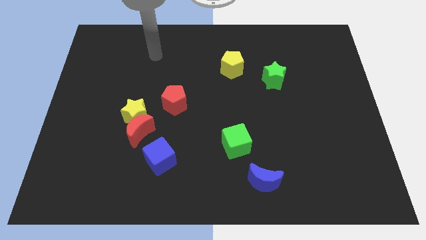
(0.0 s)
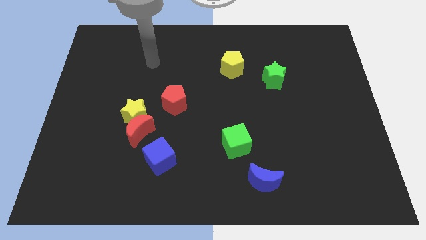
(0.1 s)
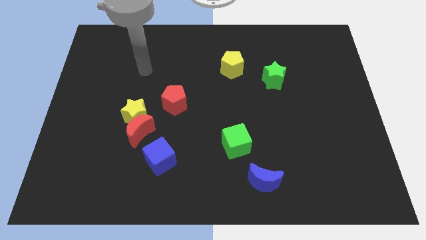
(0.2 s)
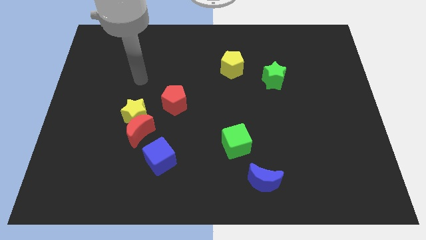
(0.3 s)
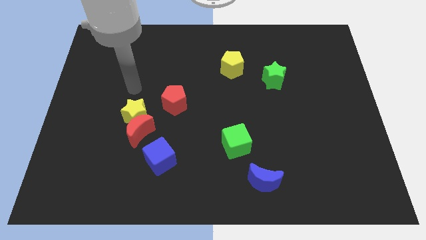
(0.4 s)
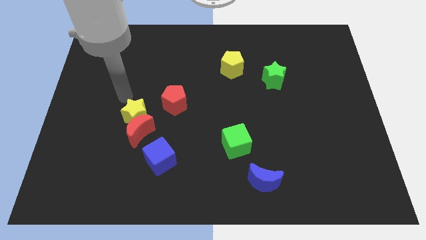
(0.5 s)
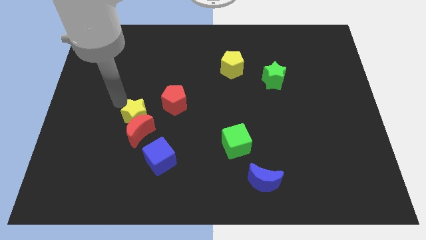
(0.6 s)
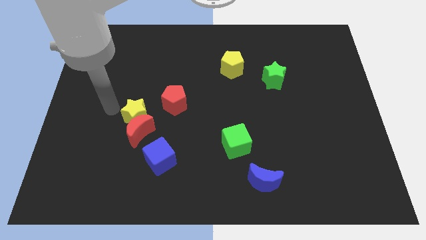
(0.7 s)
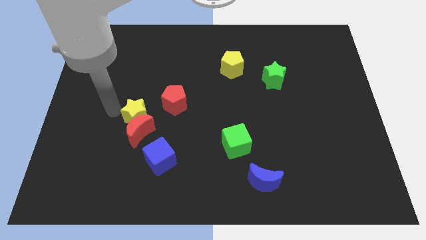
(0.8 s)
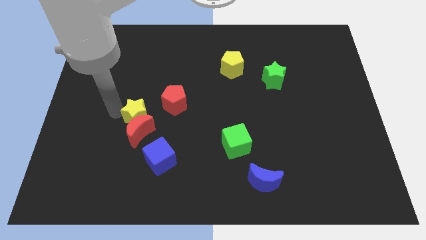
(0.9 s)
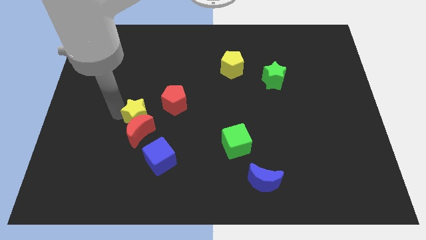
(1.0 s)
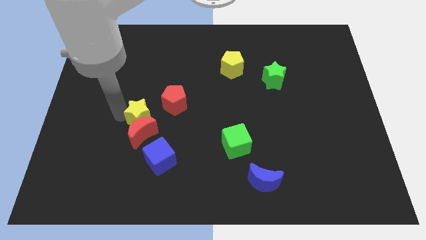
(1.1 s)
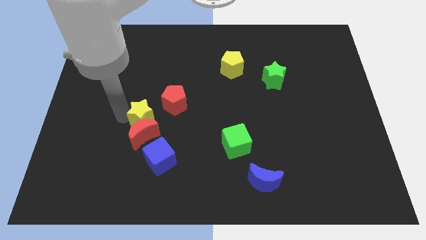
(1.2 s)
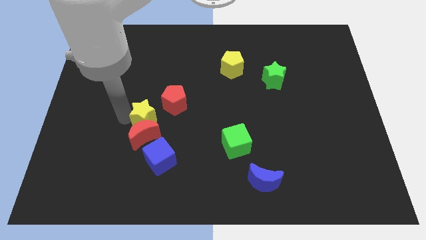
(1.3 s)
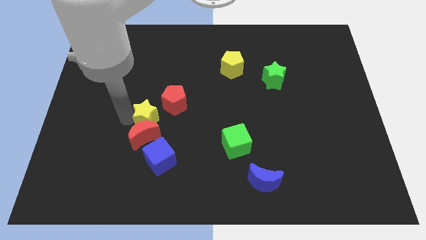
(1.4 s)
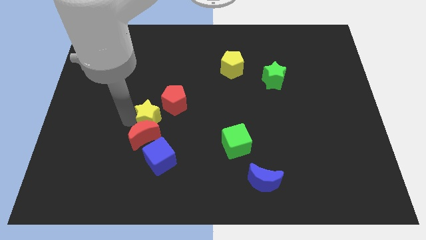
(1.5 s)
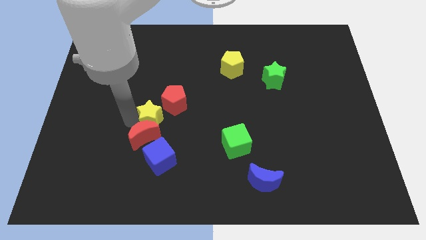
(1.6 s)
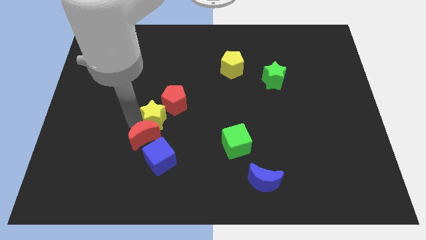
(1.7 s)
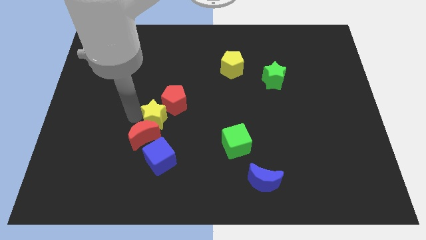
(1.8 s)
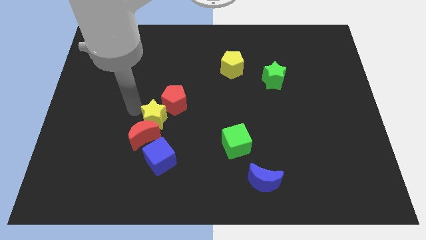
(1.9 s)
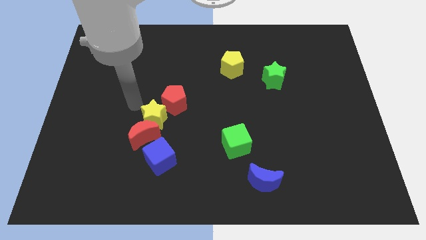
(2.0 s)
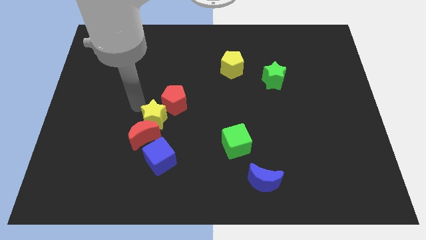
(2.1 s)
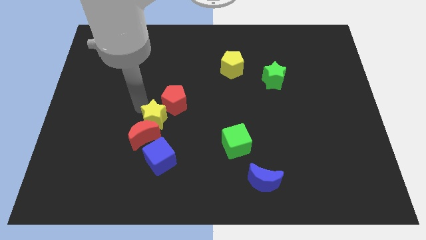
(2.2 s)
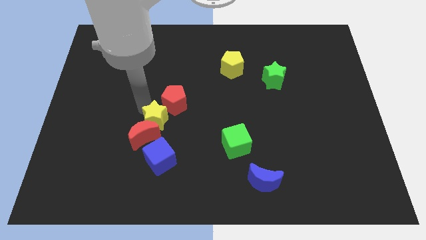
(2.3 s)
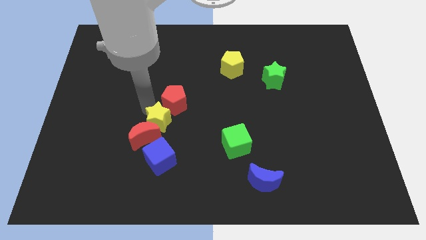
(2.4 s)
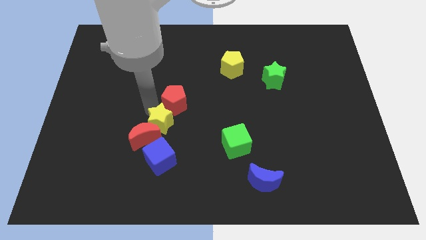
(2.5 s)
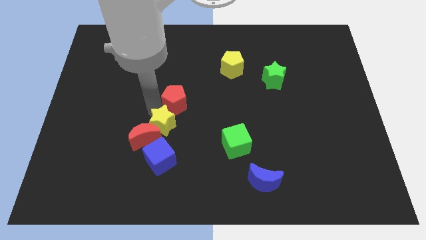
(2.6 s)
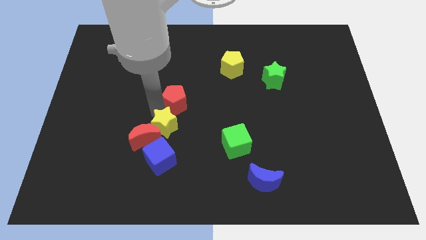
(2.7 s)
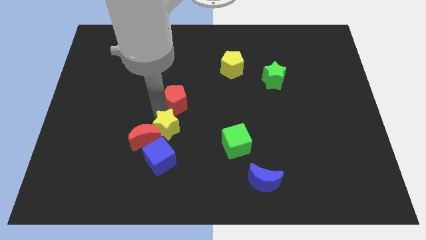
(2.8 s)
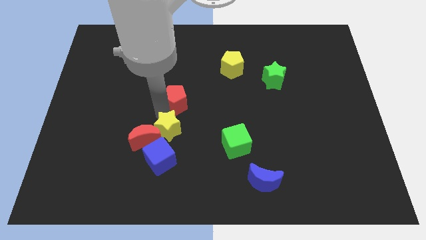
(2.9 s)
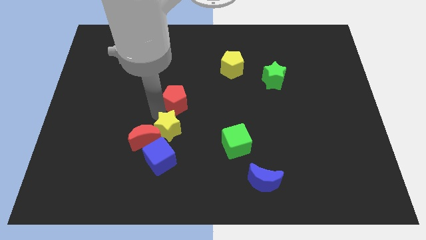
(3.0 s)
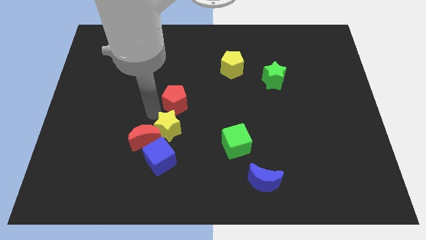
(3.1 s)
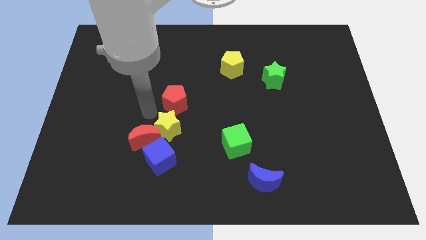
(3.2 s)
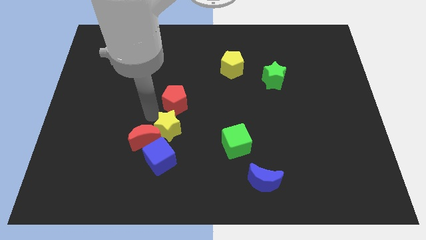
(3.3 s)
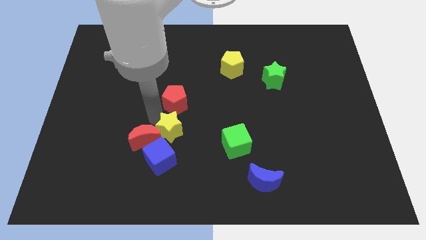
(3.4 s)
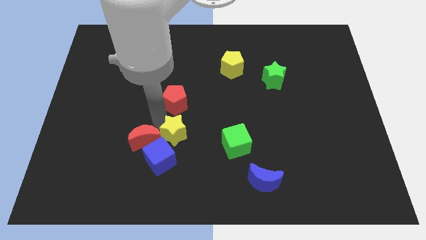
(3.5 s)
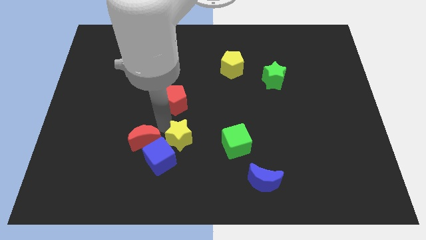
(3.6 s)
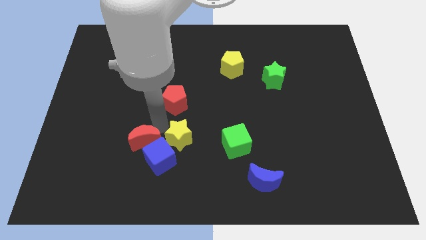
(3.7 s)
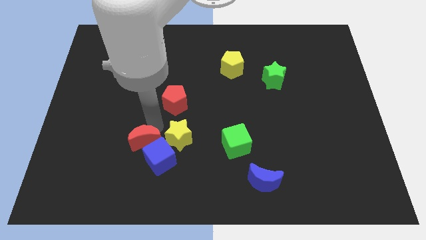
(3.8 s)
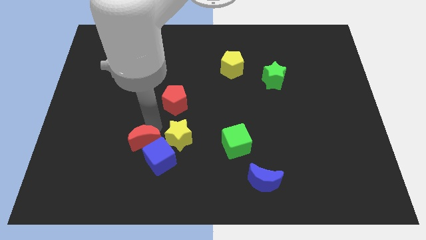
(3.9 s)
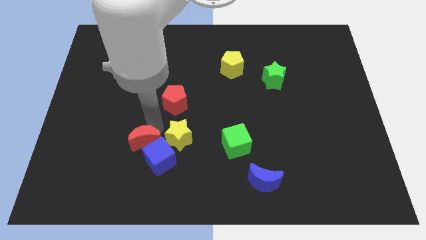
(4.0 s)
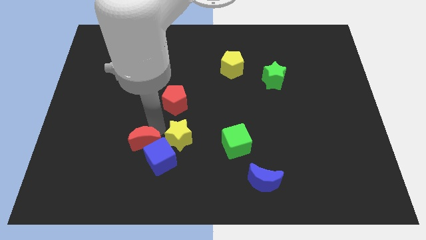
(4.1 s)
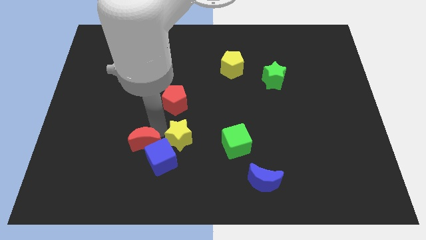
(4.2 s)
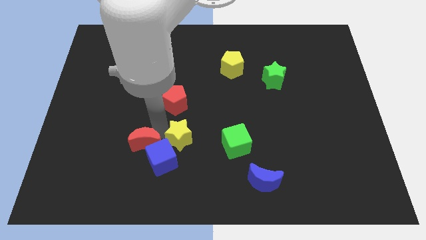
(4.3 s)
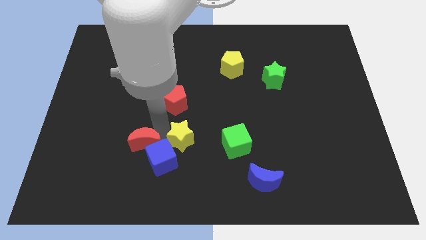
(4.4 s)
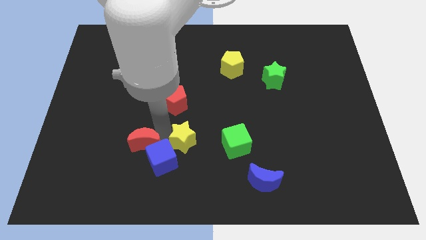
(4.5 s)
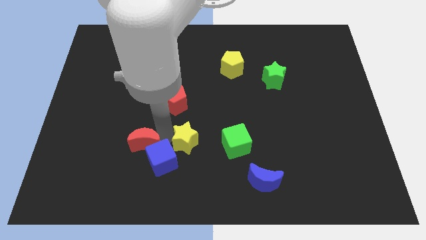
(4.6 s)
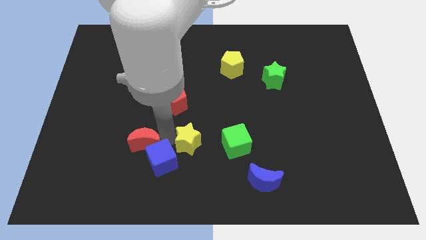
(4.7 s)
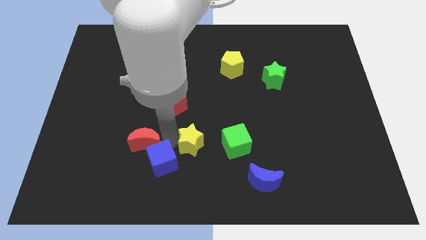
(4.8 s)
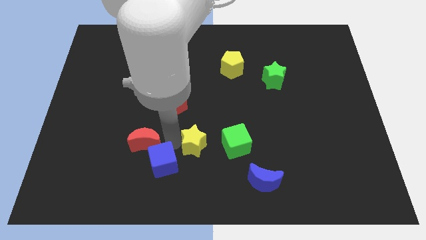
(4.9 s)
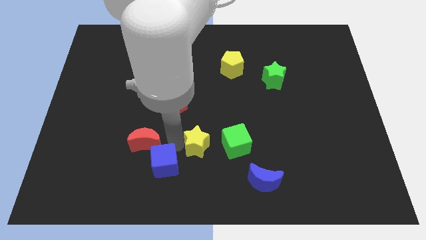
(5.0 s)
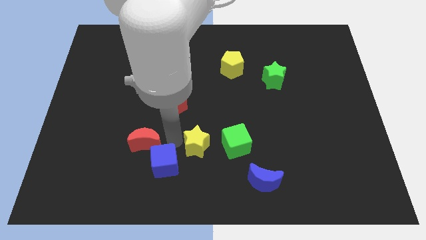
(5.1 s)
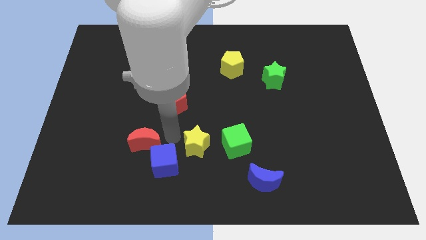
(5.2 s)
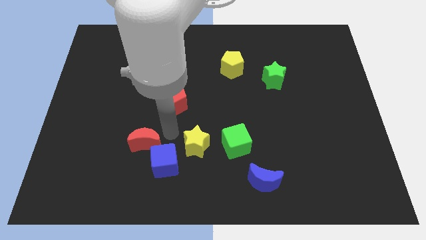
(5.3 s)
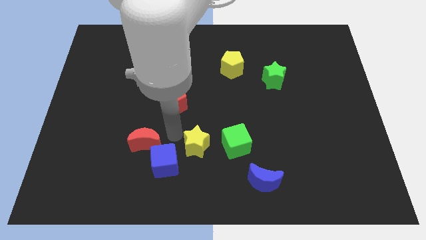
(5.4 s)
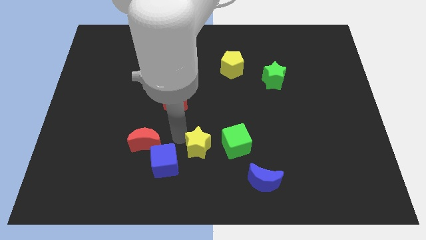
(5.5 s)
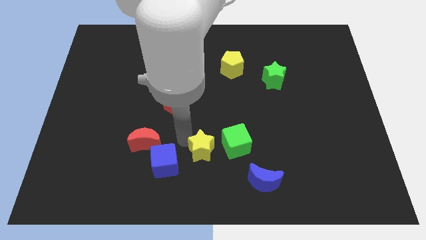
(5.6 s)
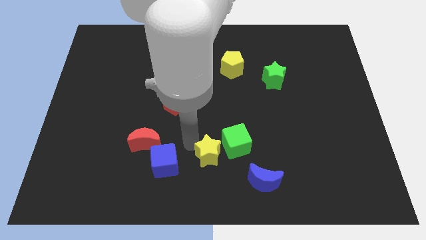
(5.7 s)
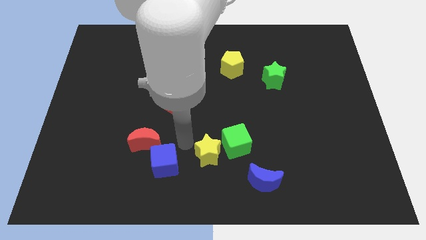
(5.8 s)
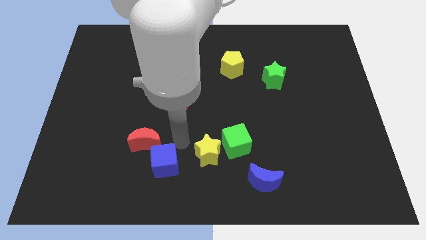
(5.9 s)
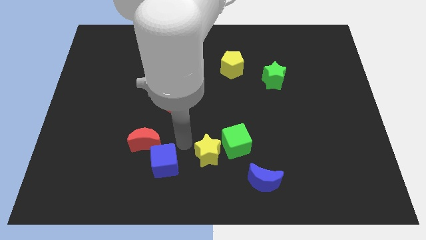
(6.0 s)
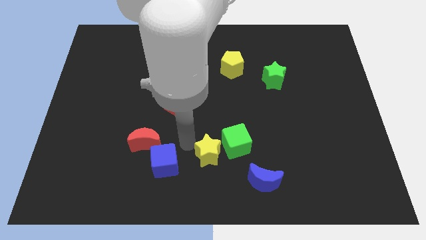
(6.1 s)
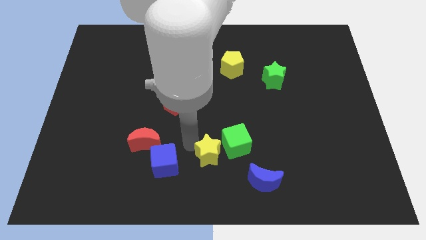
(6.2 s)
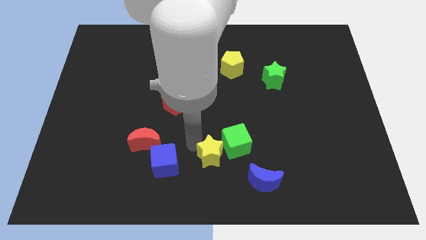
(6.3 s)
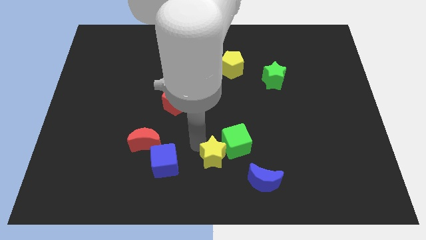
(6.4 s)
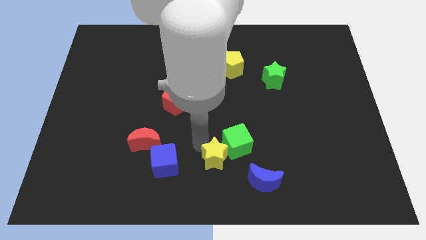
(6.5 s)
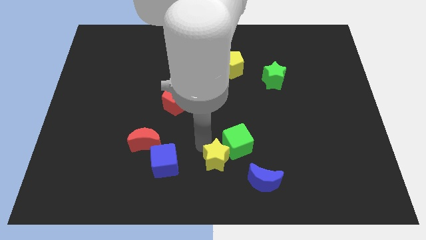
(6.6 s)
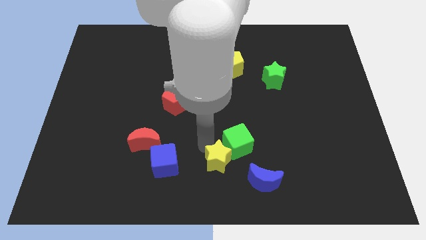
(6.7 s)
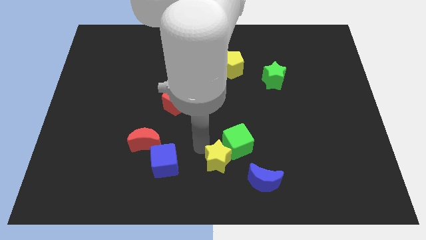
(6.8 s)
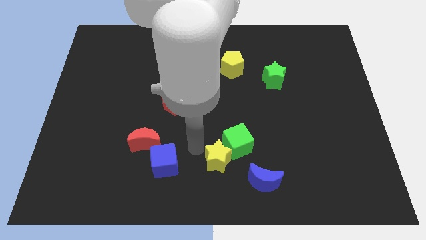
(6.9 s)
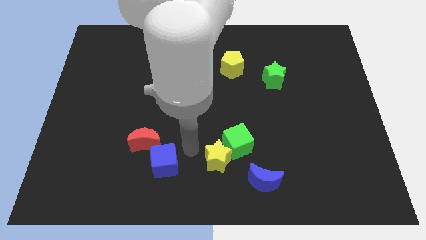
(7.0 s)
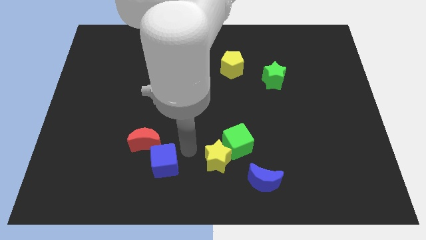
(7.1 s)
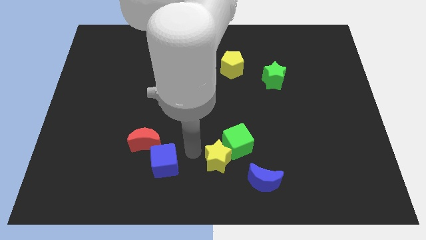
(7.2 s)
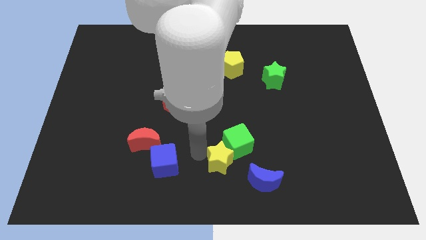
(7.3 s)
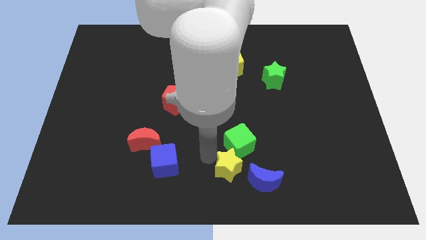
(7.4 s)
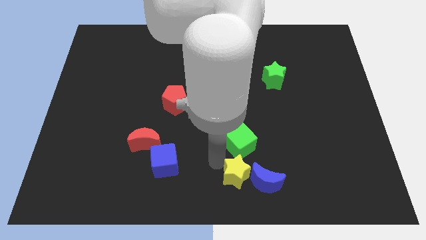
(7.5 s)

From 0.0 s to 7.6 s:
push the yellow star towards the blue moon

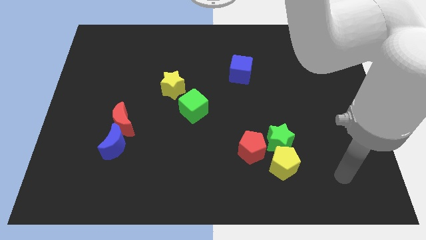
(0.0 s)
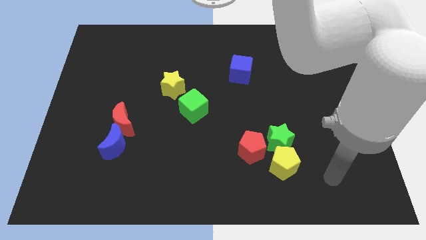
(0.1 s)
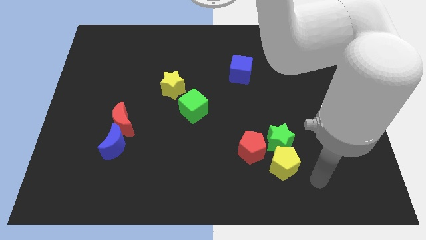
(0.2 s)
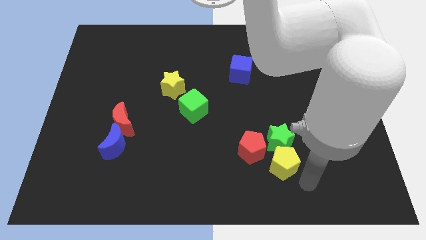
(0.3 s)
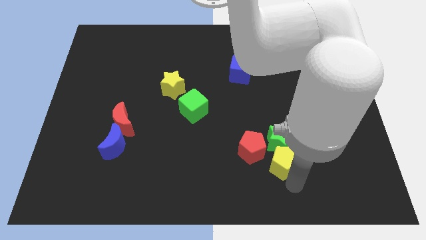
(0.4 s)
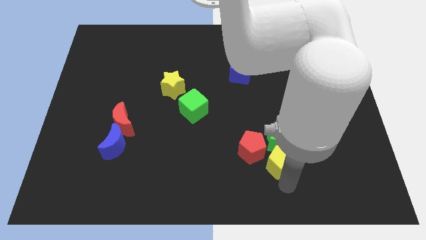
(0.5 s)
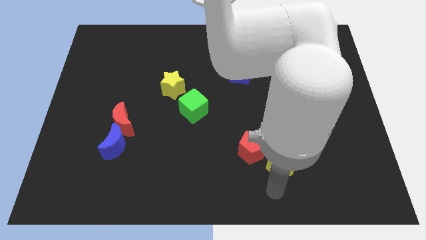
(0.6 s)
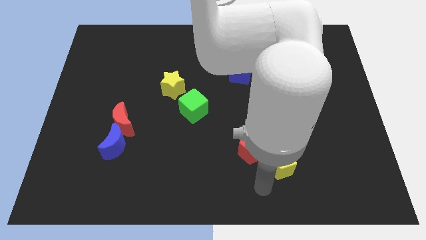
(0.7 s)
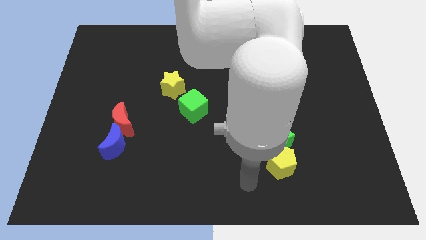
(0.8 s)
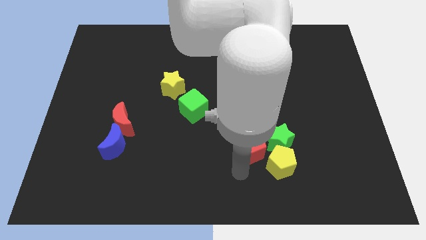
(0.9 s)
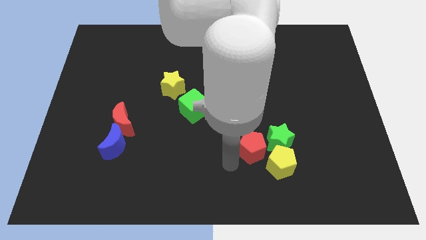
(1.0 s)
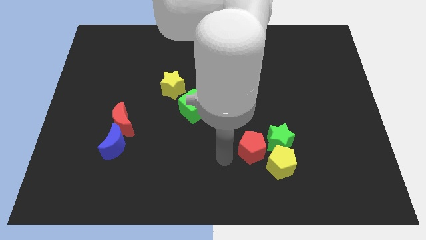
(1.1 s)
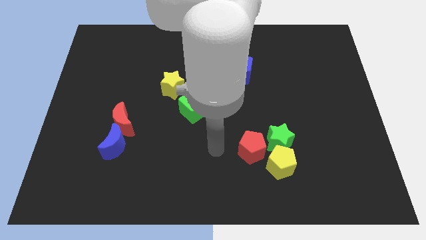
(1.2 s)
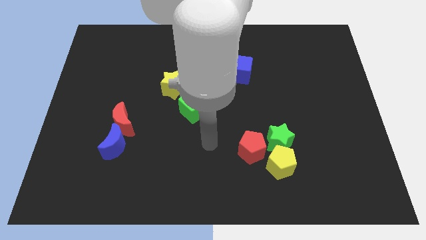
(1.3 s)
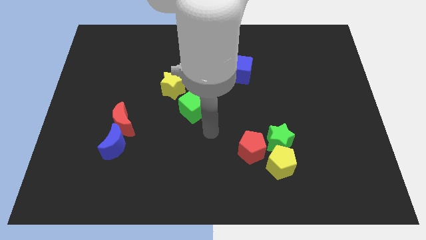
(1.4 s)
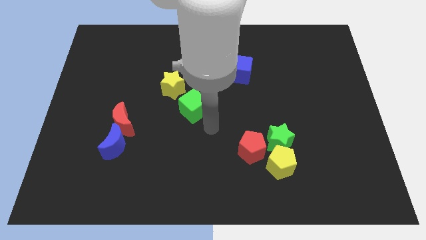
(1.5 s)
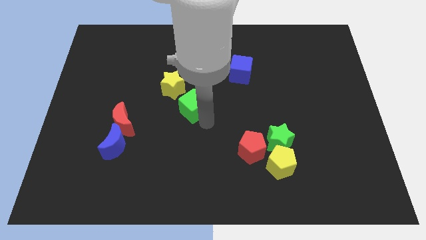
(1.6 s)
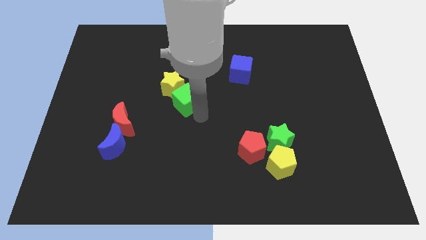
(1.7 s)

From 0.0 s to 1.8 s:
move the green cube next to the yellow star
